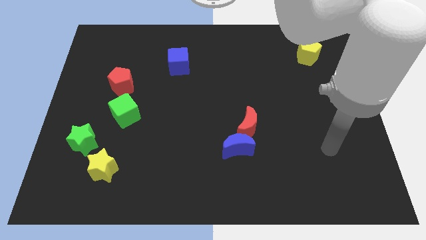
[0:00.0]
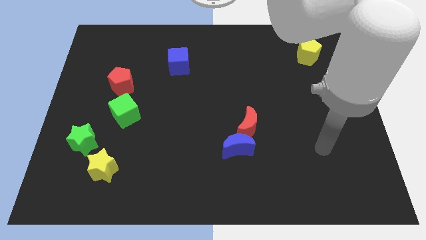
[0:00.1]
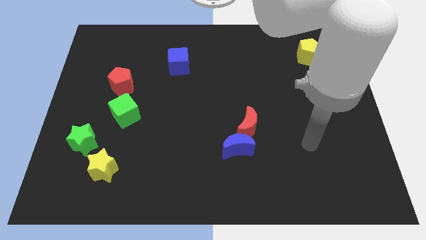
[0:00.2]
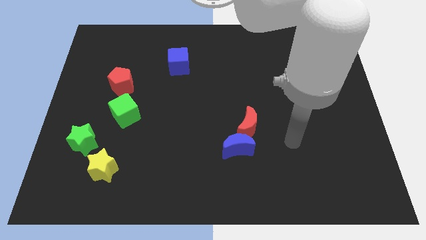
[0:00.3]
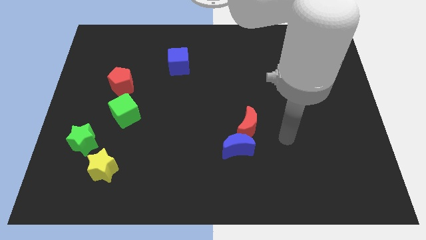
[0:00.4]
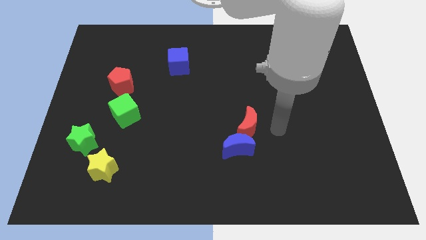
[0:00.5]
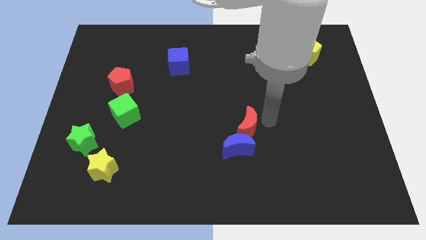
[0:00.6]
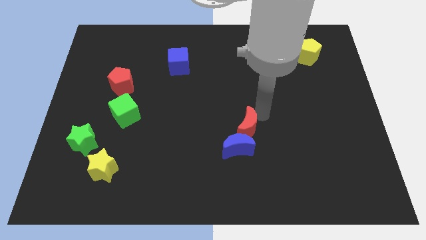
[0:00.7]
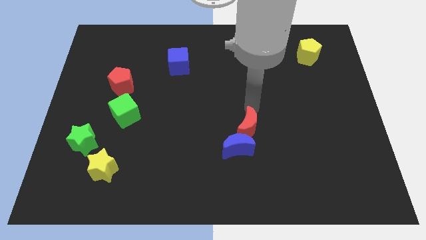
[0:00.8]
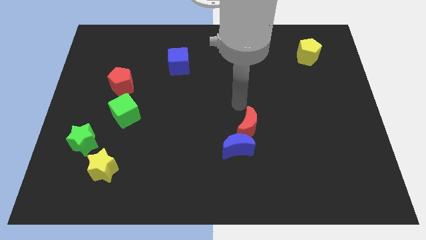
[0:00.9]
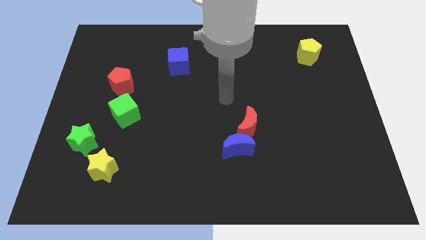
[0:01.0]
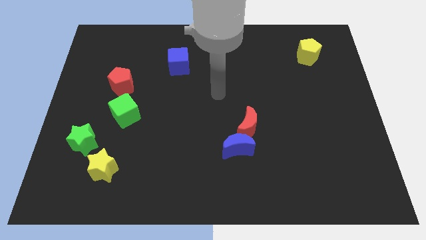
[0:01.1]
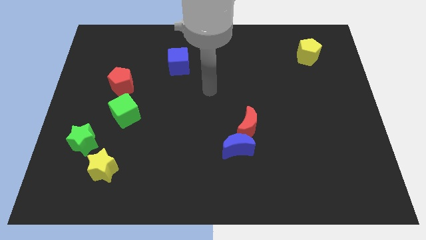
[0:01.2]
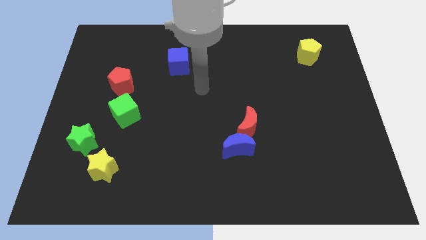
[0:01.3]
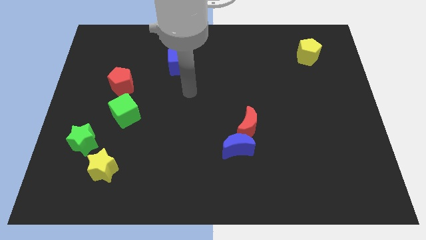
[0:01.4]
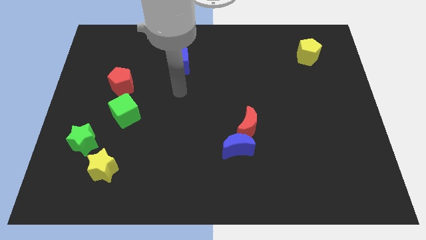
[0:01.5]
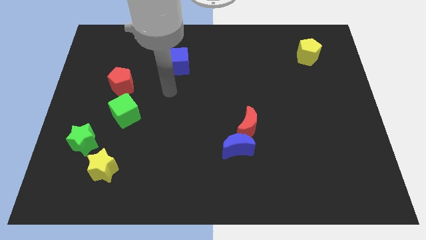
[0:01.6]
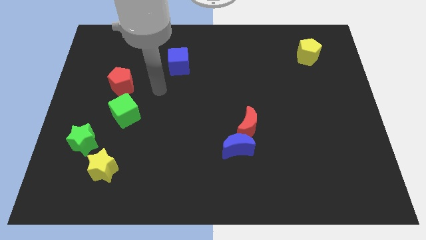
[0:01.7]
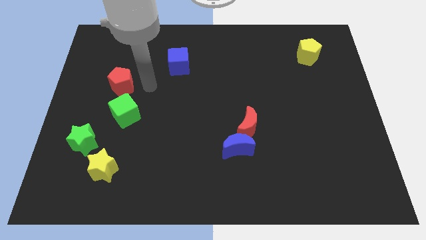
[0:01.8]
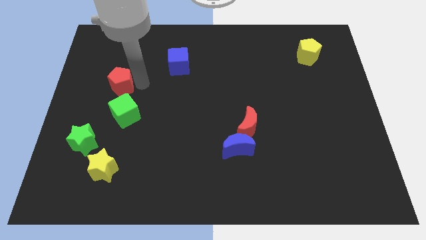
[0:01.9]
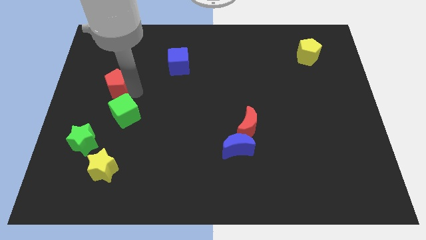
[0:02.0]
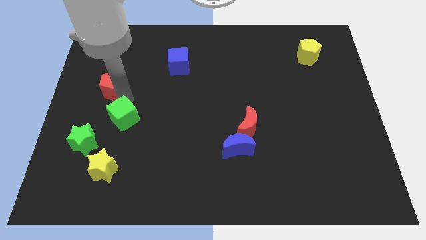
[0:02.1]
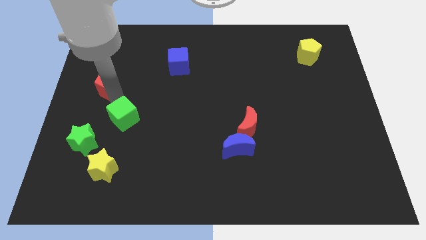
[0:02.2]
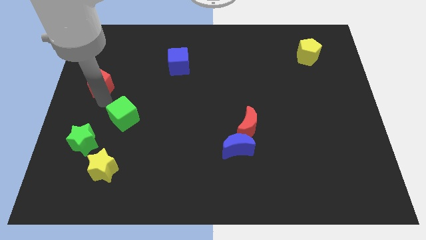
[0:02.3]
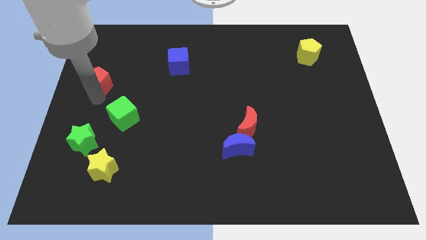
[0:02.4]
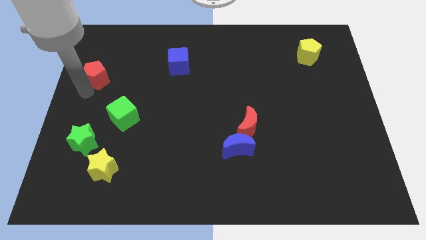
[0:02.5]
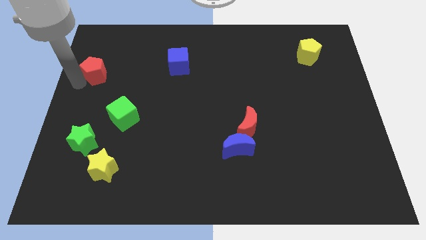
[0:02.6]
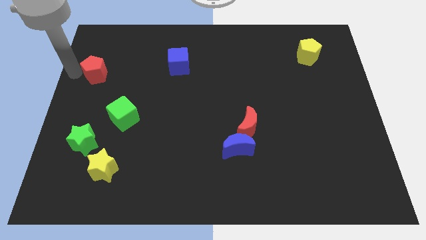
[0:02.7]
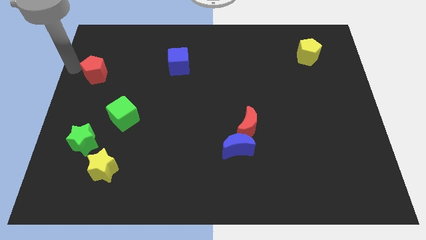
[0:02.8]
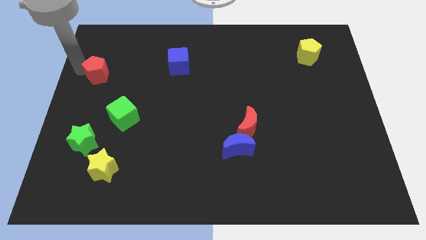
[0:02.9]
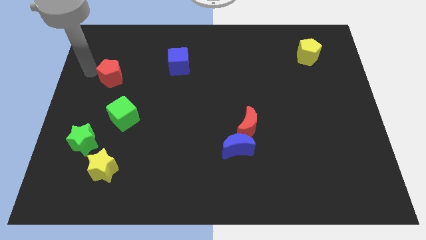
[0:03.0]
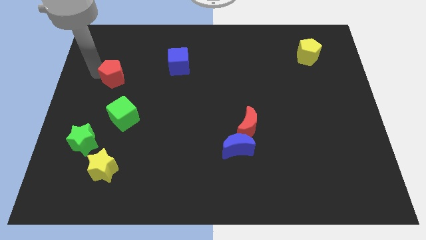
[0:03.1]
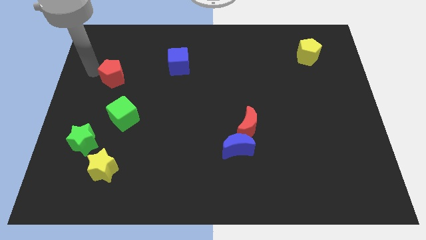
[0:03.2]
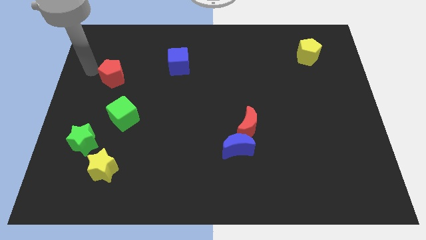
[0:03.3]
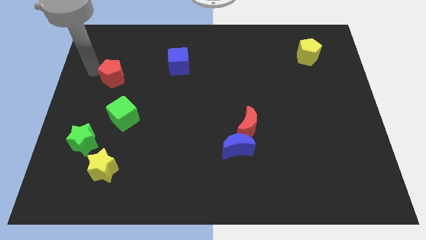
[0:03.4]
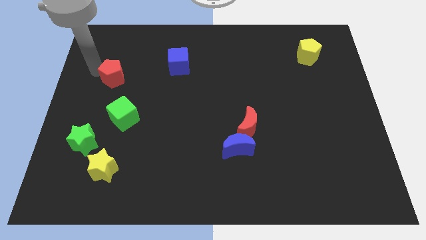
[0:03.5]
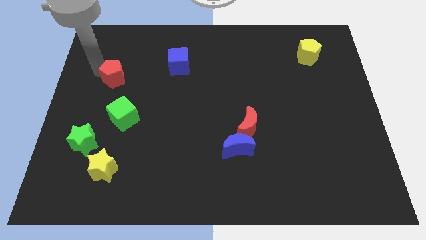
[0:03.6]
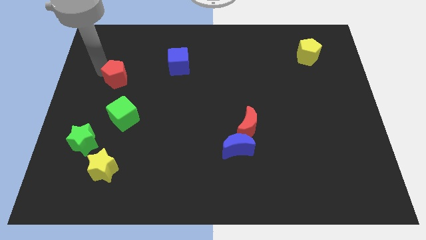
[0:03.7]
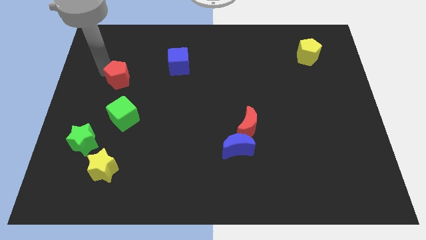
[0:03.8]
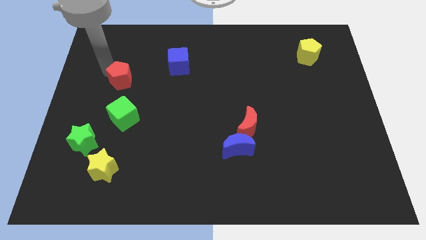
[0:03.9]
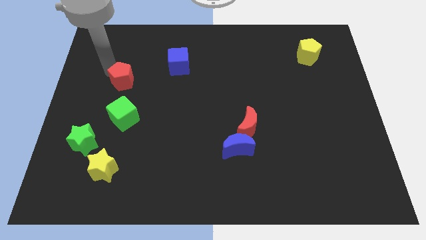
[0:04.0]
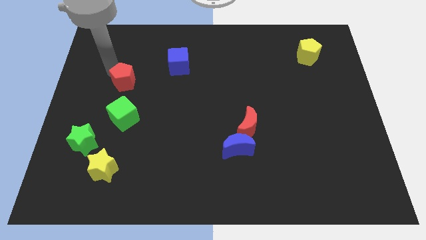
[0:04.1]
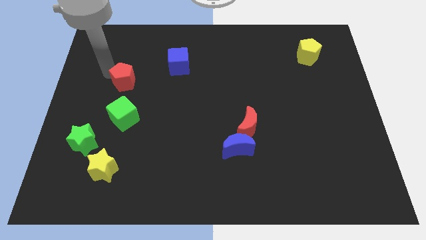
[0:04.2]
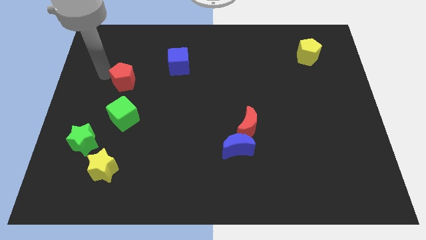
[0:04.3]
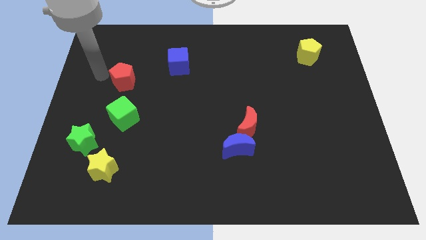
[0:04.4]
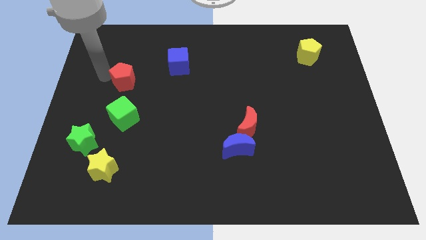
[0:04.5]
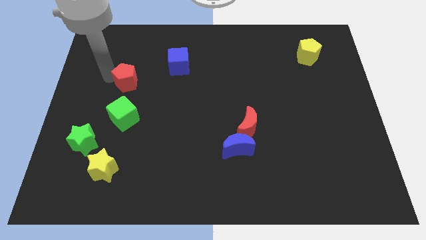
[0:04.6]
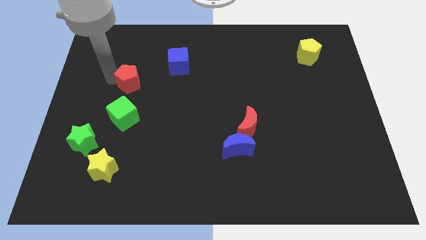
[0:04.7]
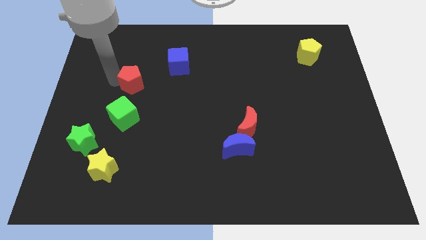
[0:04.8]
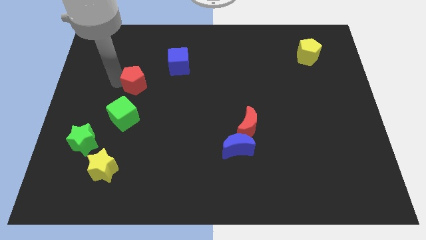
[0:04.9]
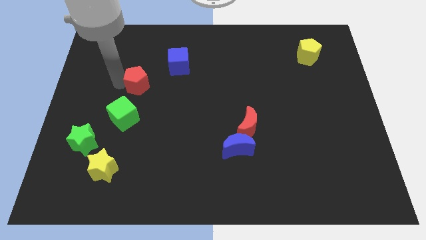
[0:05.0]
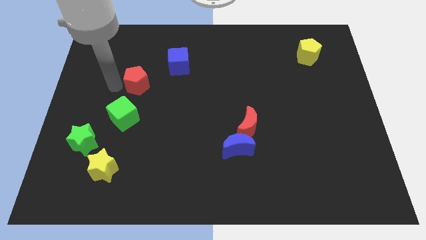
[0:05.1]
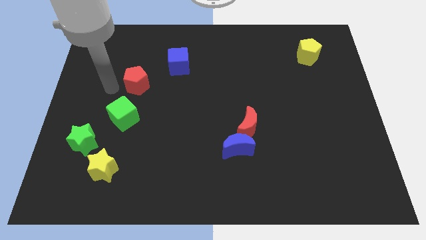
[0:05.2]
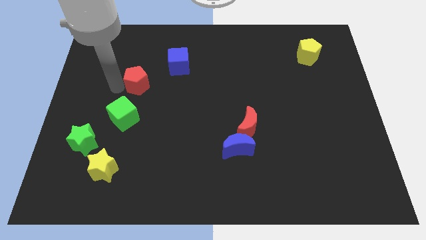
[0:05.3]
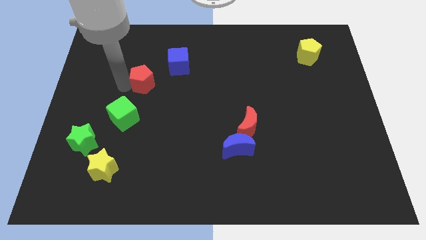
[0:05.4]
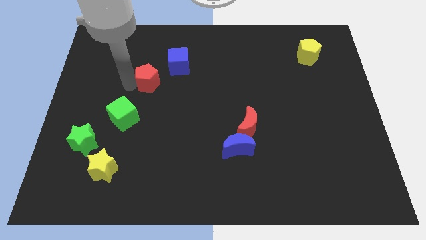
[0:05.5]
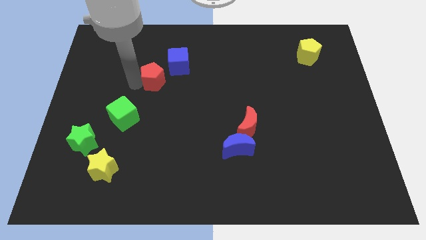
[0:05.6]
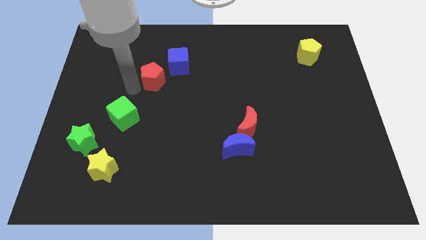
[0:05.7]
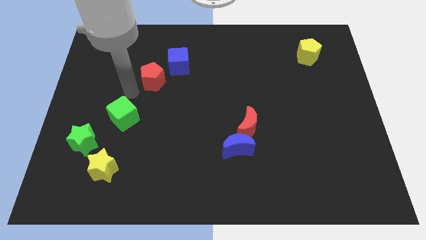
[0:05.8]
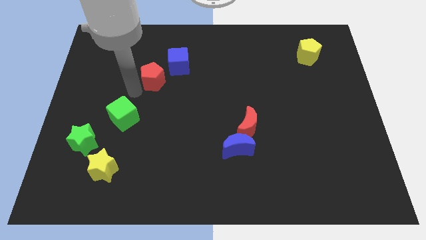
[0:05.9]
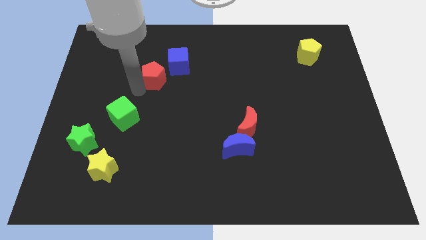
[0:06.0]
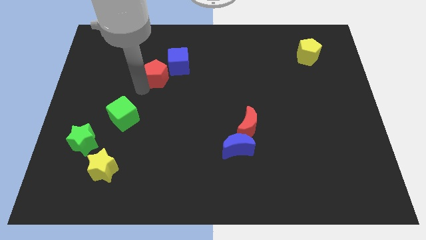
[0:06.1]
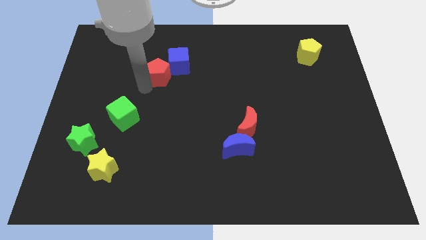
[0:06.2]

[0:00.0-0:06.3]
slide the red pentagon towards the blue cube
